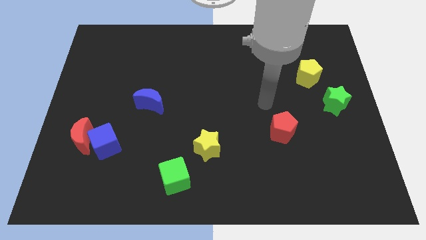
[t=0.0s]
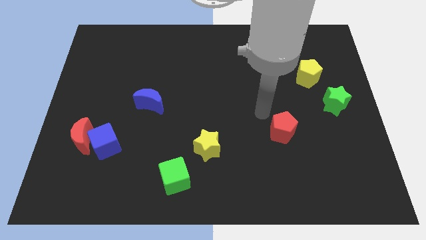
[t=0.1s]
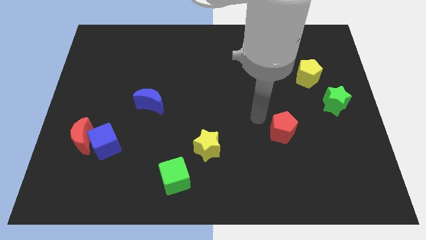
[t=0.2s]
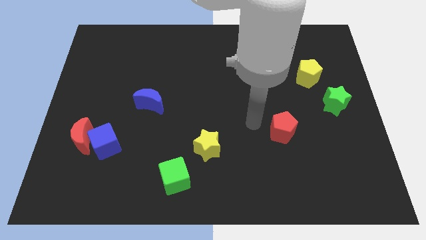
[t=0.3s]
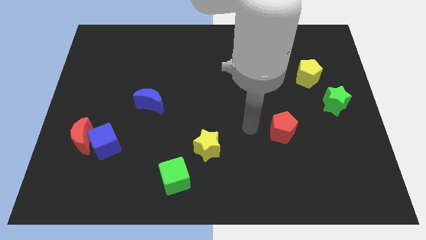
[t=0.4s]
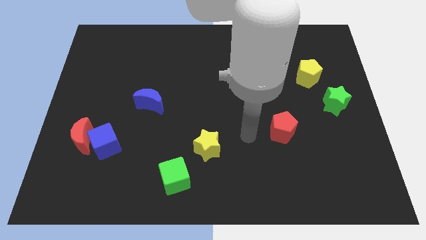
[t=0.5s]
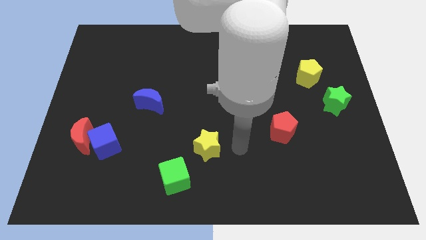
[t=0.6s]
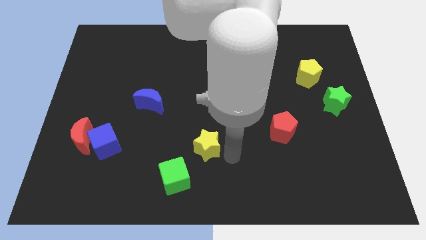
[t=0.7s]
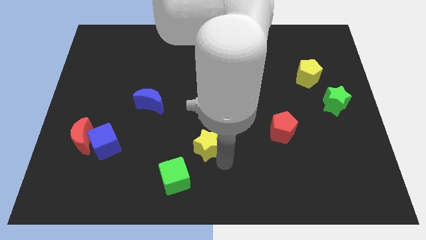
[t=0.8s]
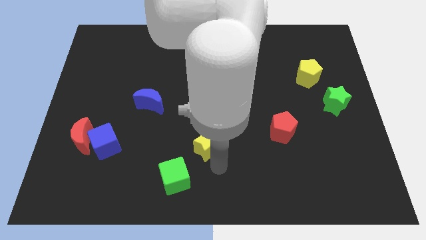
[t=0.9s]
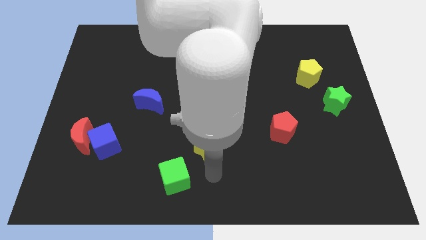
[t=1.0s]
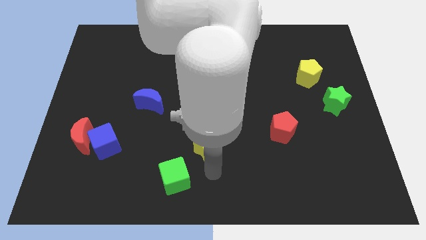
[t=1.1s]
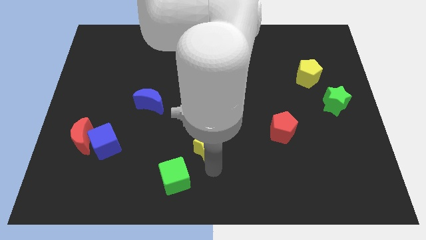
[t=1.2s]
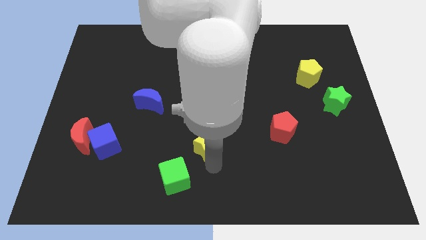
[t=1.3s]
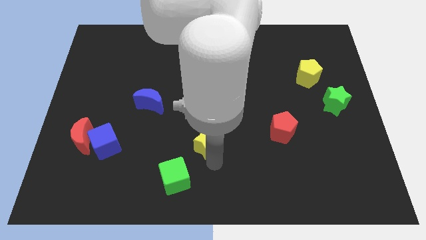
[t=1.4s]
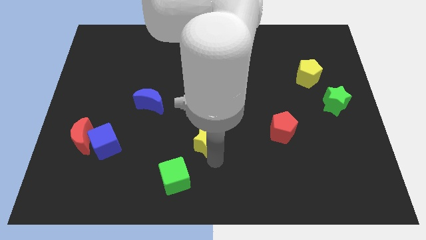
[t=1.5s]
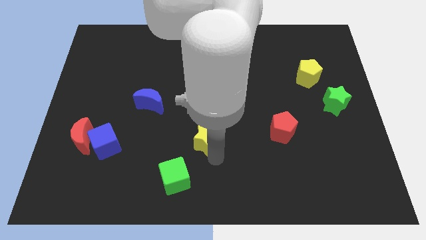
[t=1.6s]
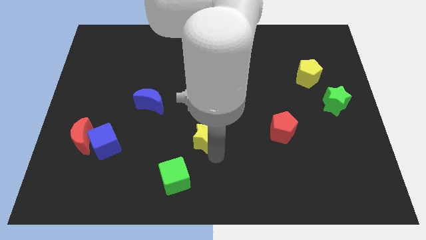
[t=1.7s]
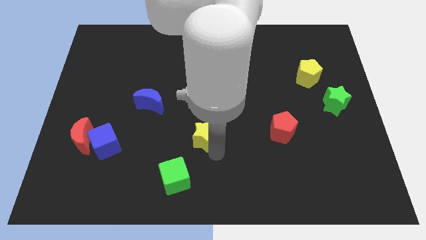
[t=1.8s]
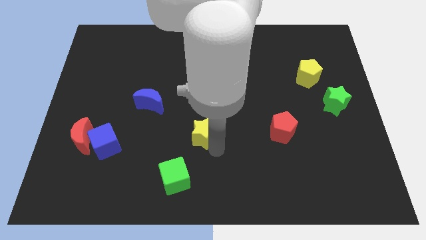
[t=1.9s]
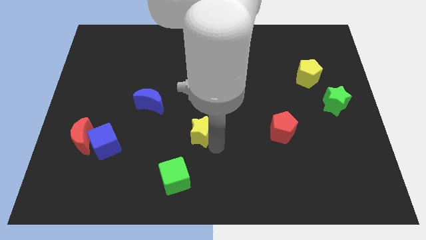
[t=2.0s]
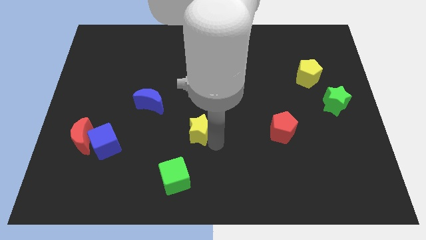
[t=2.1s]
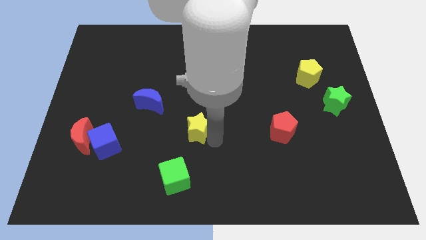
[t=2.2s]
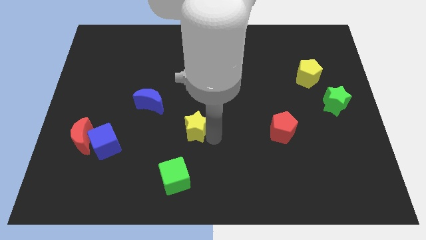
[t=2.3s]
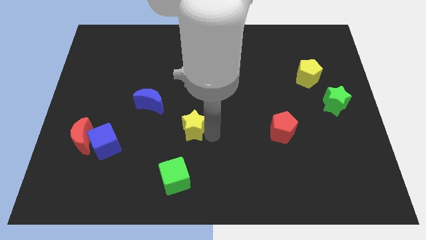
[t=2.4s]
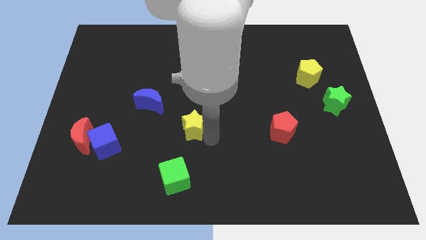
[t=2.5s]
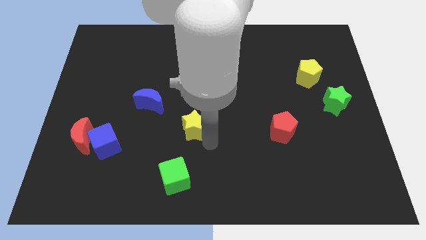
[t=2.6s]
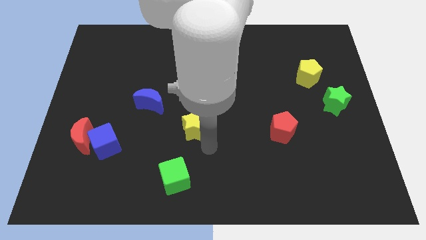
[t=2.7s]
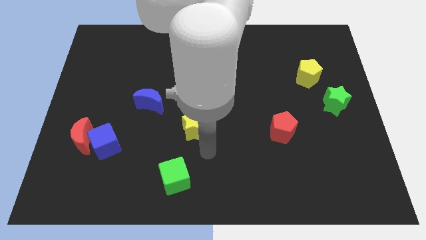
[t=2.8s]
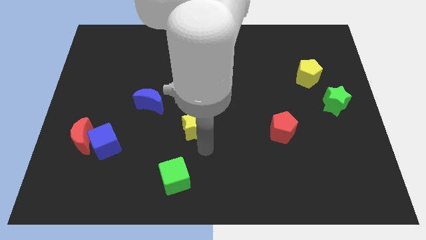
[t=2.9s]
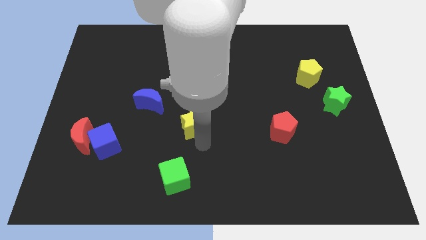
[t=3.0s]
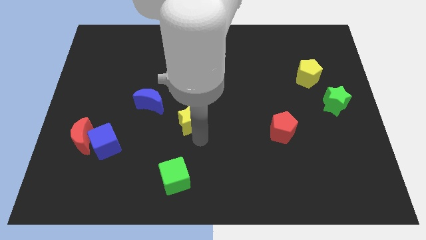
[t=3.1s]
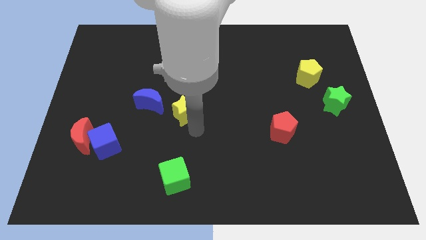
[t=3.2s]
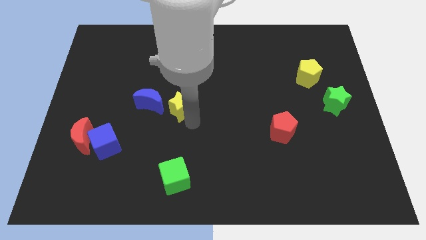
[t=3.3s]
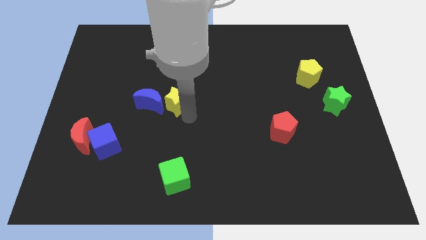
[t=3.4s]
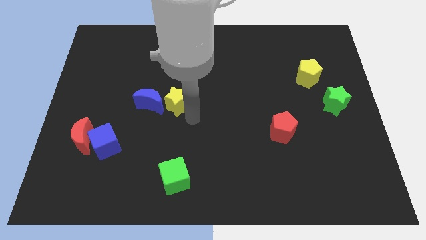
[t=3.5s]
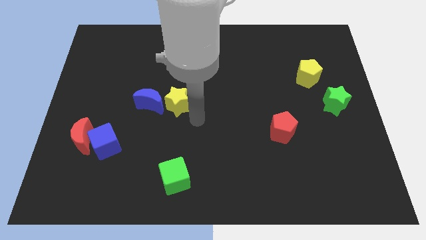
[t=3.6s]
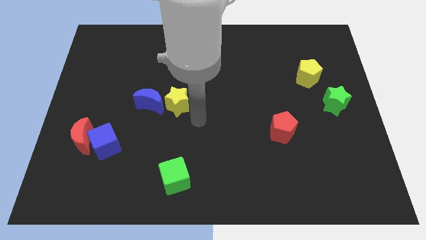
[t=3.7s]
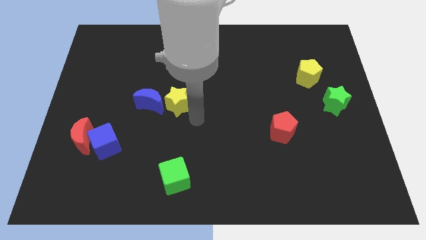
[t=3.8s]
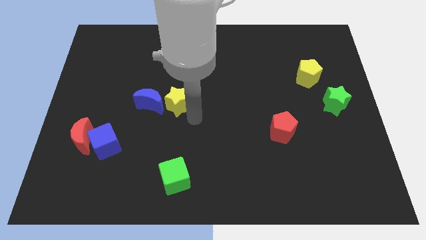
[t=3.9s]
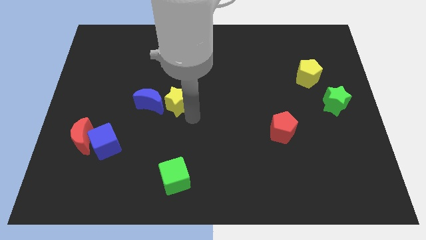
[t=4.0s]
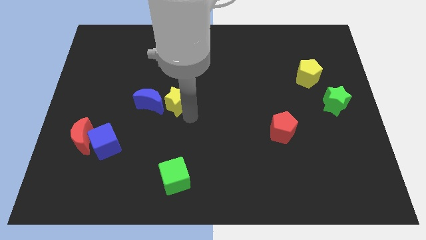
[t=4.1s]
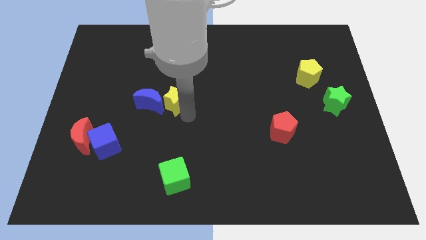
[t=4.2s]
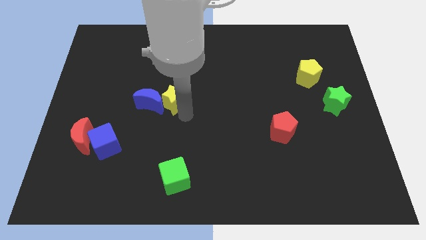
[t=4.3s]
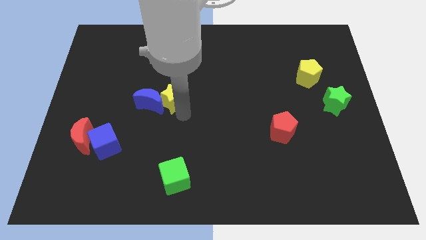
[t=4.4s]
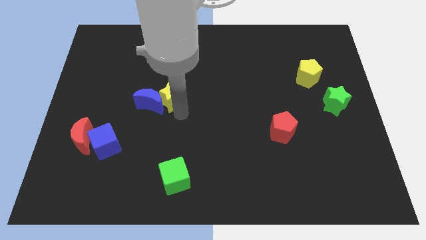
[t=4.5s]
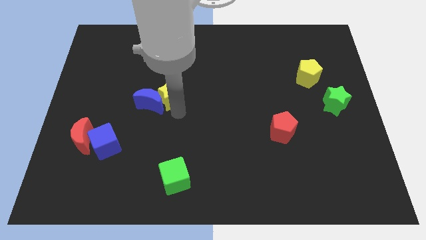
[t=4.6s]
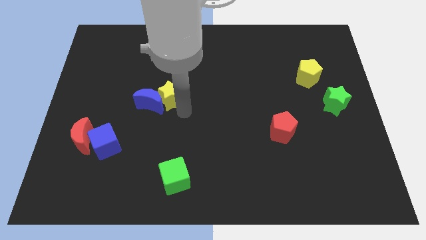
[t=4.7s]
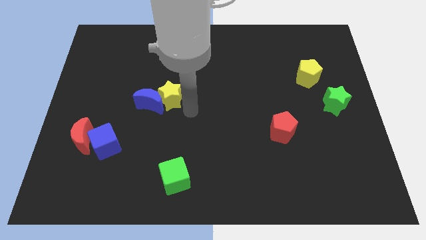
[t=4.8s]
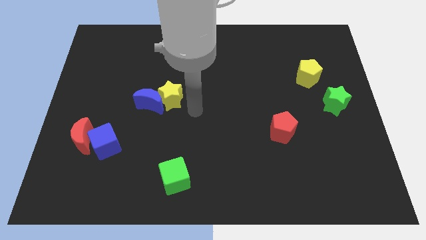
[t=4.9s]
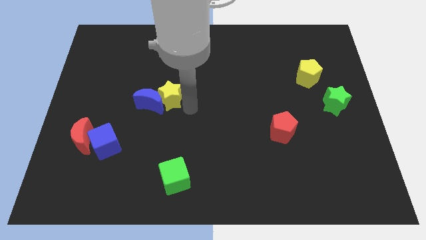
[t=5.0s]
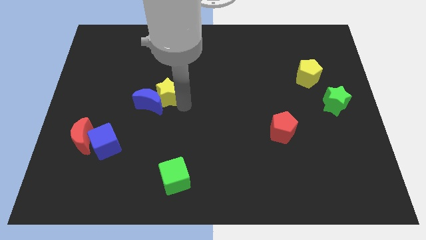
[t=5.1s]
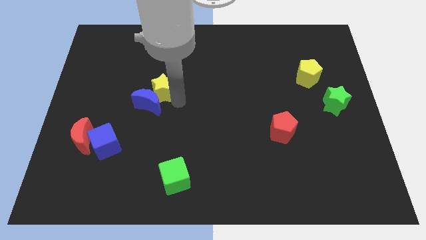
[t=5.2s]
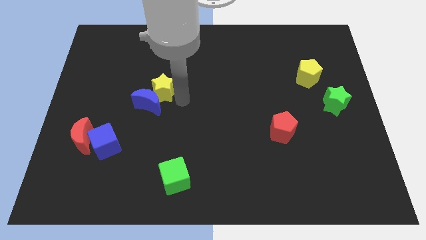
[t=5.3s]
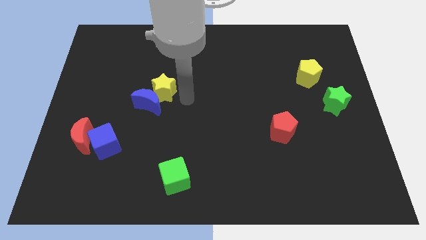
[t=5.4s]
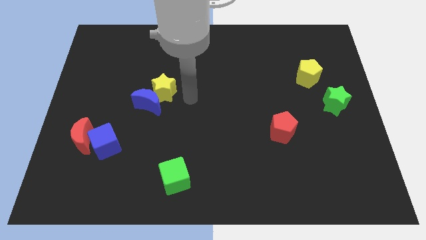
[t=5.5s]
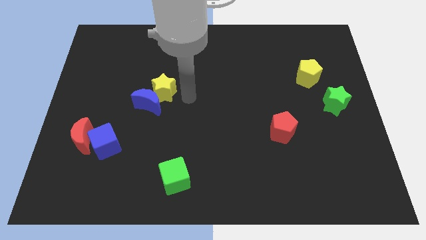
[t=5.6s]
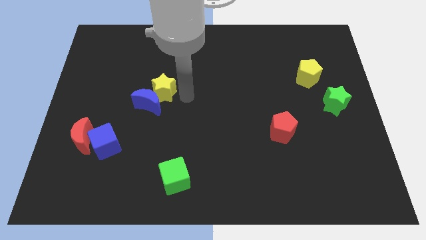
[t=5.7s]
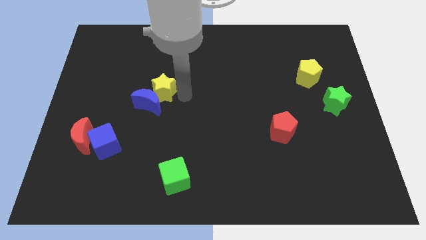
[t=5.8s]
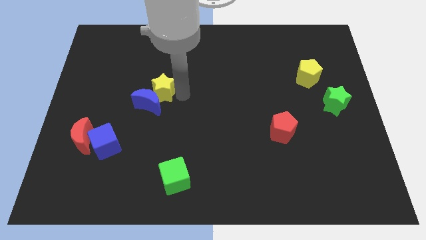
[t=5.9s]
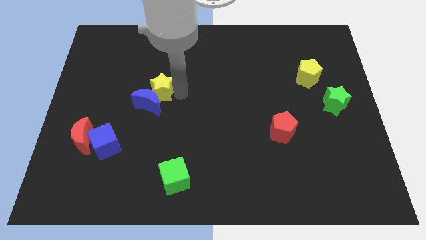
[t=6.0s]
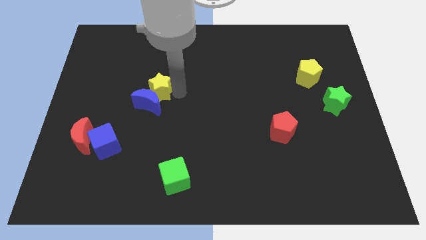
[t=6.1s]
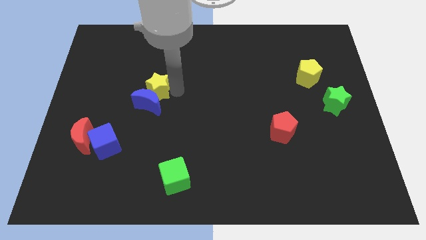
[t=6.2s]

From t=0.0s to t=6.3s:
slide the yellow star upwards and left diagonally

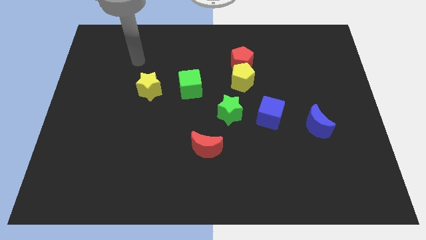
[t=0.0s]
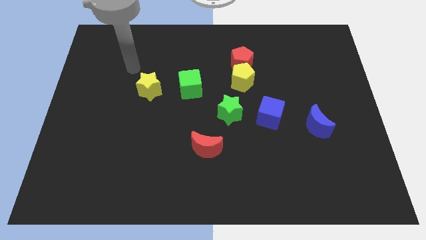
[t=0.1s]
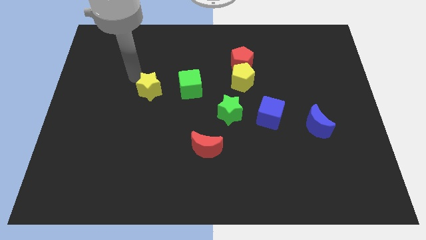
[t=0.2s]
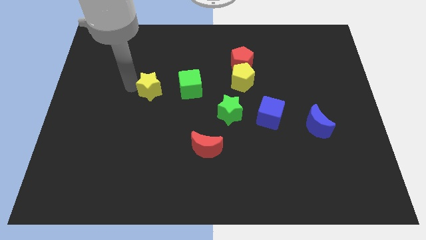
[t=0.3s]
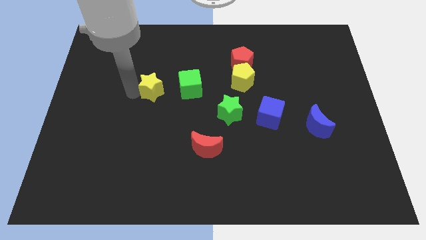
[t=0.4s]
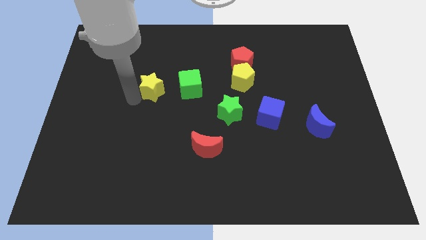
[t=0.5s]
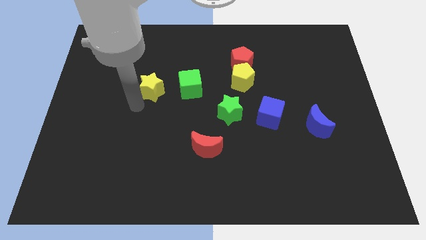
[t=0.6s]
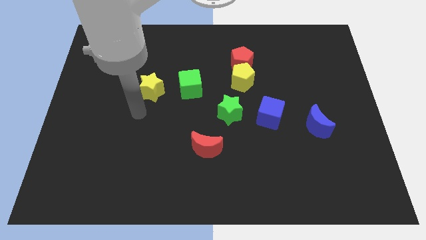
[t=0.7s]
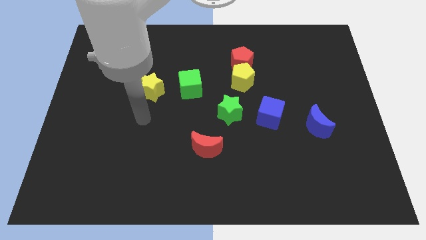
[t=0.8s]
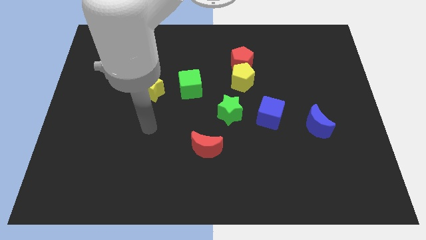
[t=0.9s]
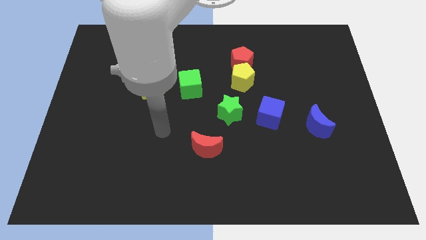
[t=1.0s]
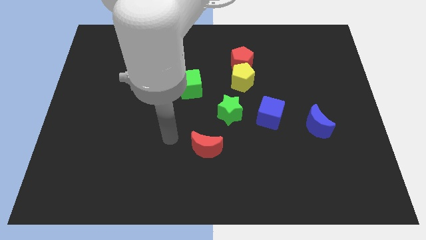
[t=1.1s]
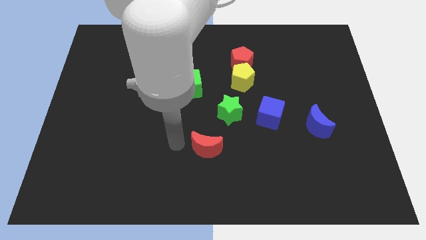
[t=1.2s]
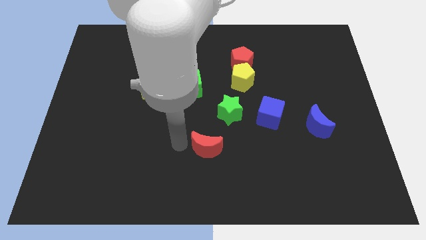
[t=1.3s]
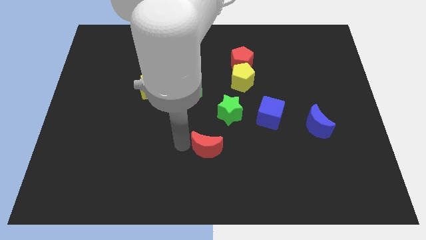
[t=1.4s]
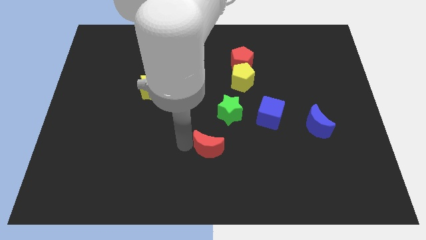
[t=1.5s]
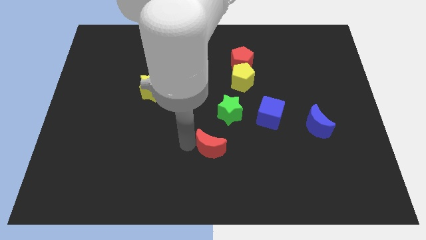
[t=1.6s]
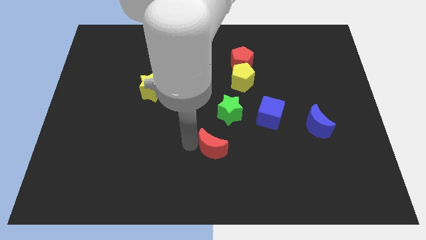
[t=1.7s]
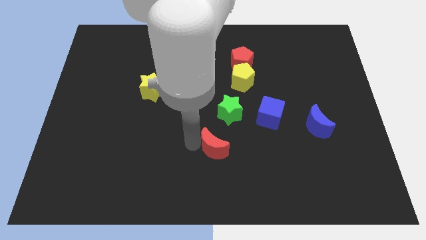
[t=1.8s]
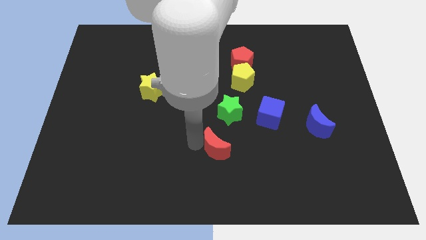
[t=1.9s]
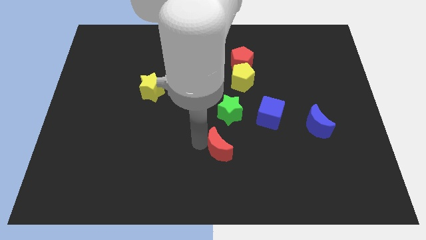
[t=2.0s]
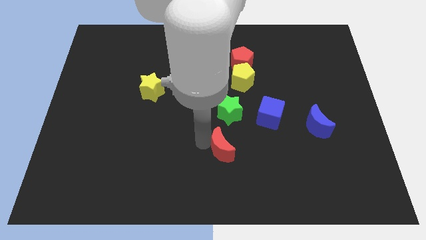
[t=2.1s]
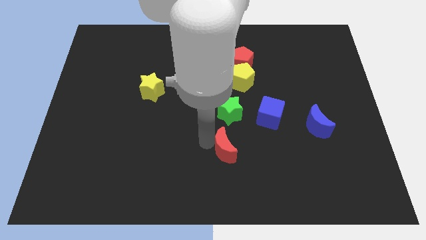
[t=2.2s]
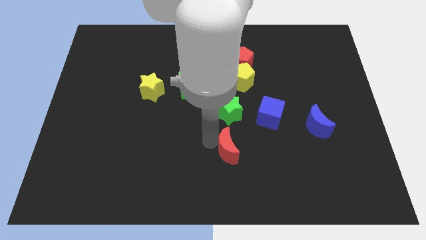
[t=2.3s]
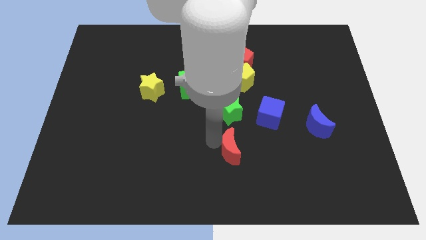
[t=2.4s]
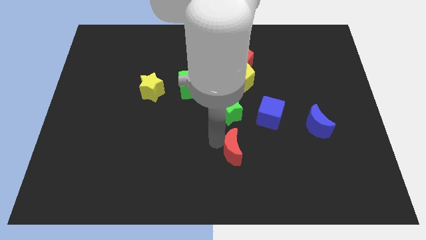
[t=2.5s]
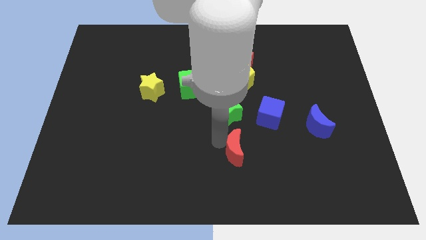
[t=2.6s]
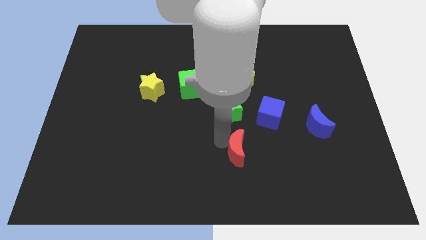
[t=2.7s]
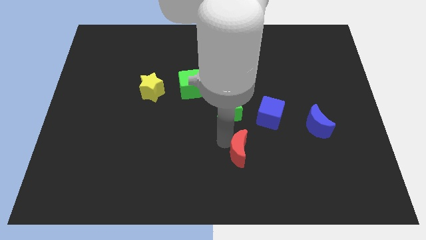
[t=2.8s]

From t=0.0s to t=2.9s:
slide the red moon to the right somewhat
